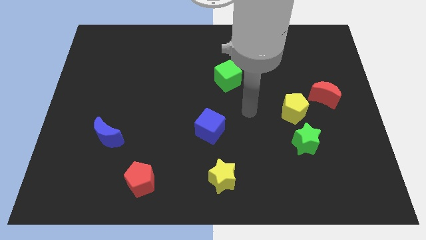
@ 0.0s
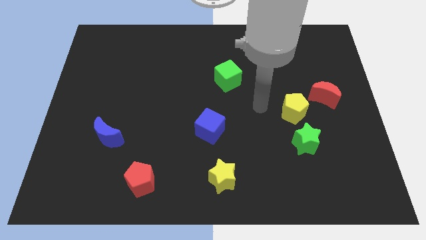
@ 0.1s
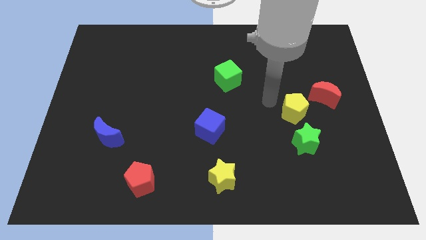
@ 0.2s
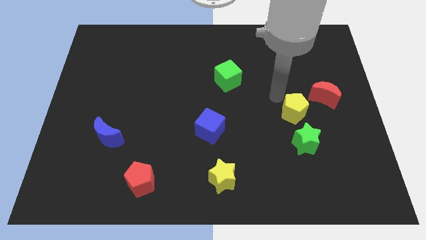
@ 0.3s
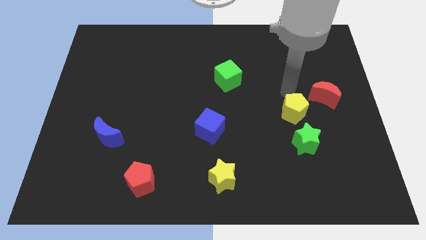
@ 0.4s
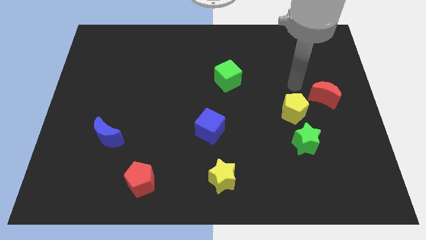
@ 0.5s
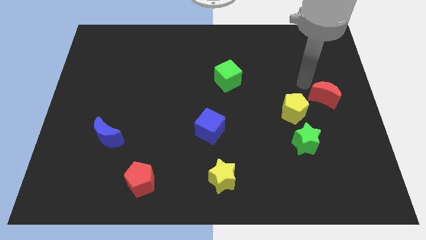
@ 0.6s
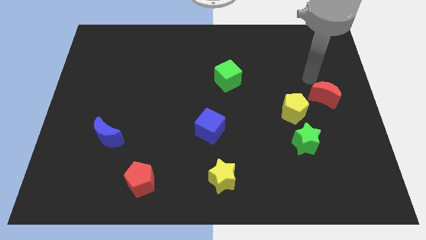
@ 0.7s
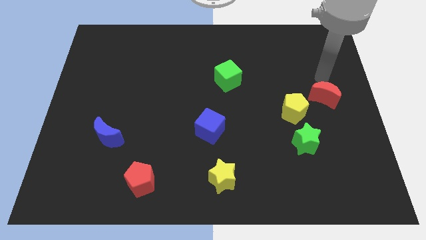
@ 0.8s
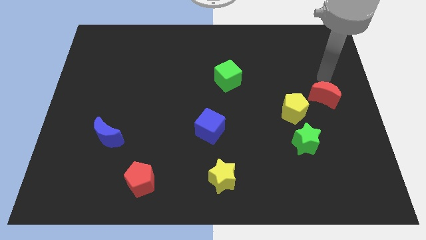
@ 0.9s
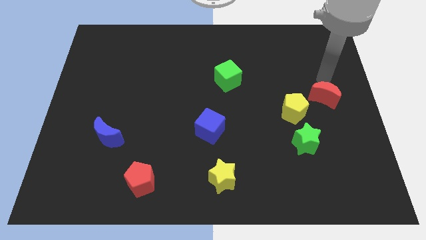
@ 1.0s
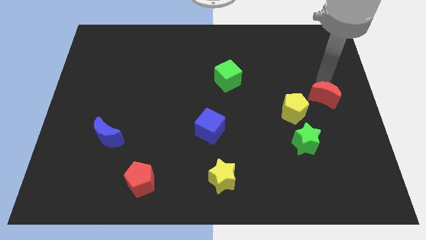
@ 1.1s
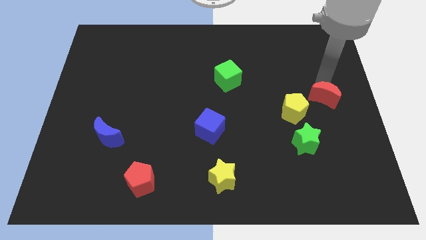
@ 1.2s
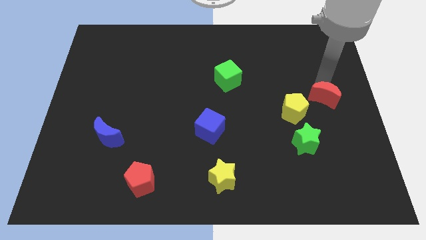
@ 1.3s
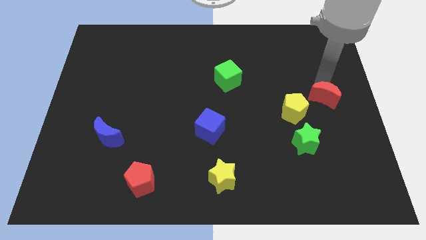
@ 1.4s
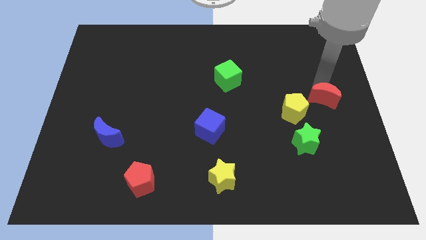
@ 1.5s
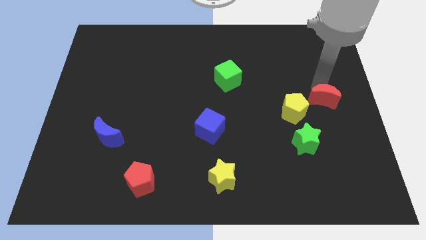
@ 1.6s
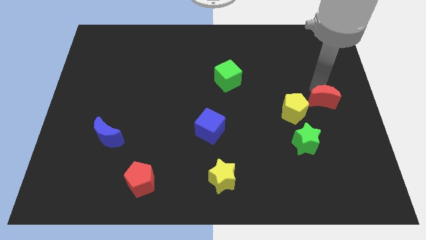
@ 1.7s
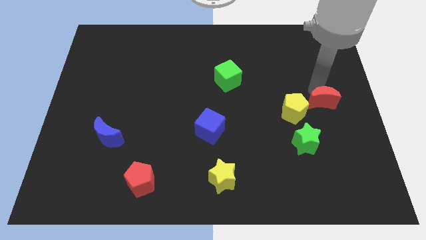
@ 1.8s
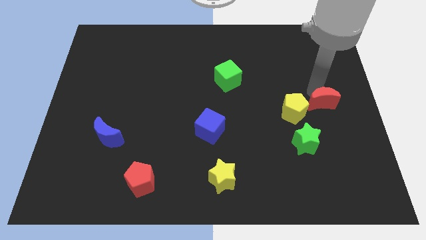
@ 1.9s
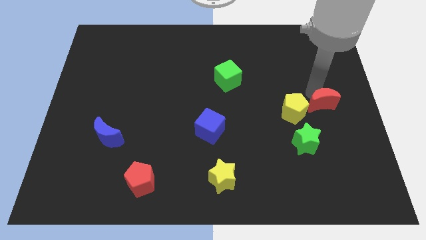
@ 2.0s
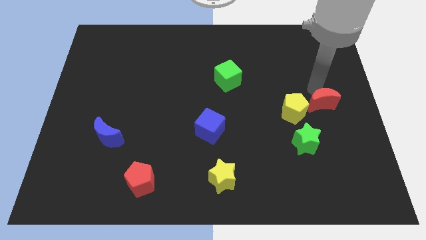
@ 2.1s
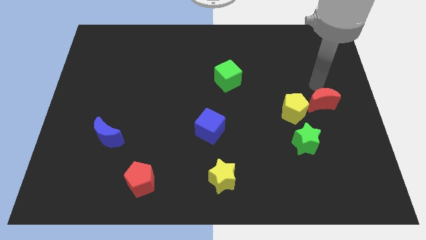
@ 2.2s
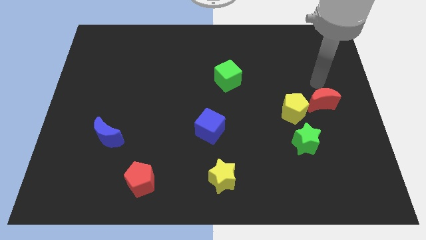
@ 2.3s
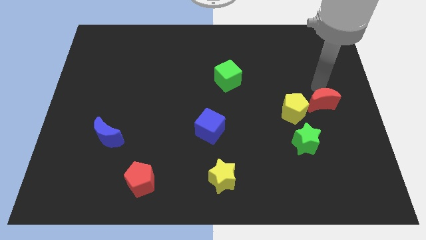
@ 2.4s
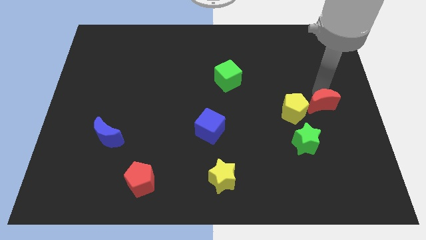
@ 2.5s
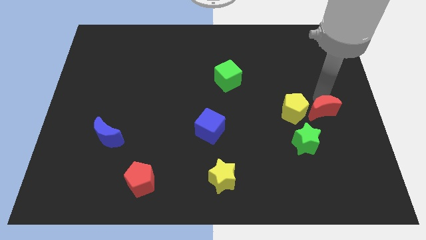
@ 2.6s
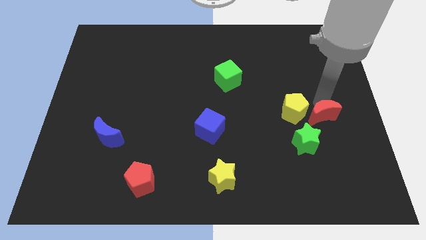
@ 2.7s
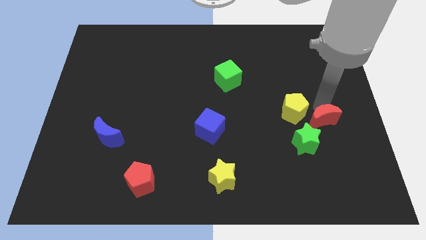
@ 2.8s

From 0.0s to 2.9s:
move the red moon a little down

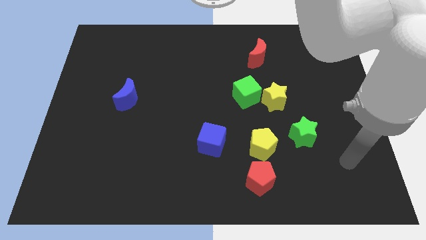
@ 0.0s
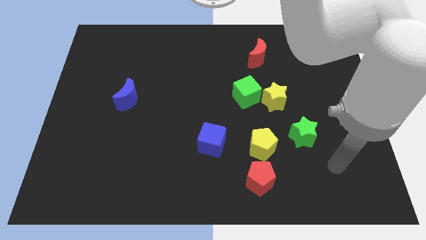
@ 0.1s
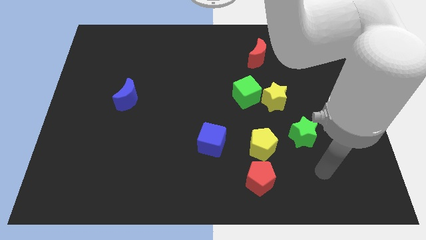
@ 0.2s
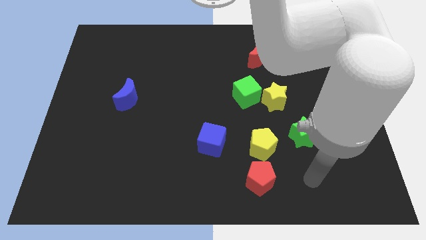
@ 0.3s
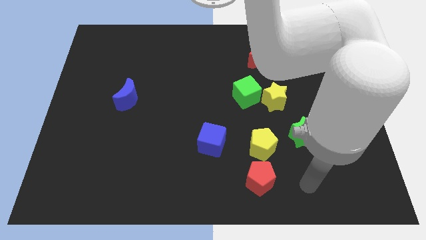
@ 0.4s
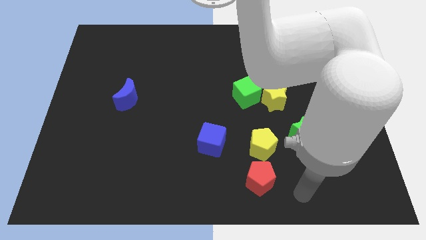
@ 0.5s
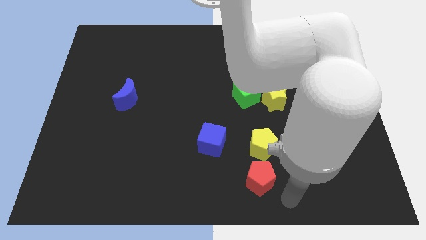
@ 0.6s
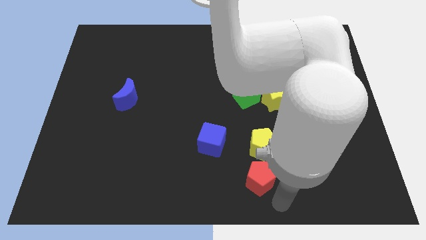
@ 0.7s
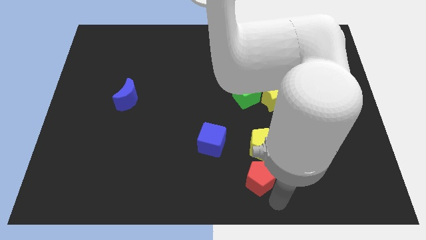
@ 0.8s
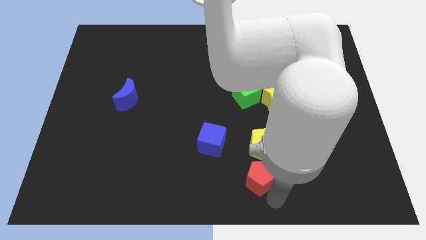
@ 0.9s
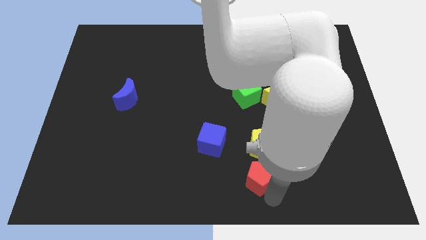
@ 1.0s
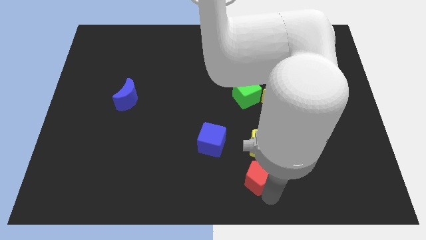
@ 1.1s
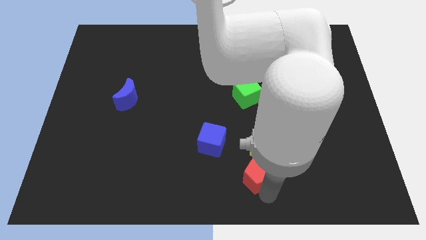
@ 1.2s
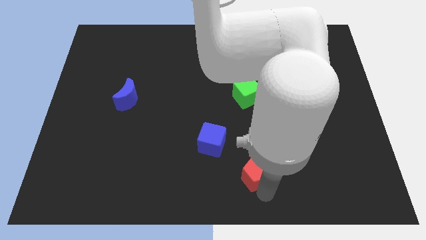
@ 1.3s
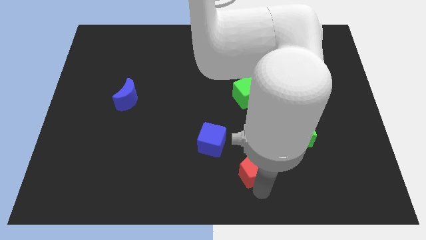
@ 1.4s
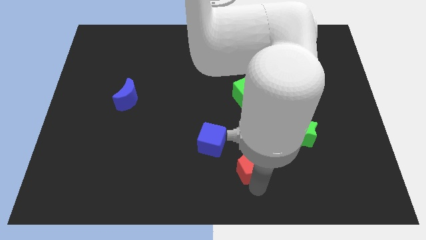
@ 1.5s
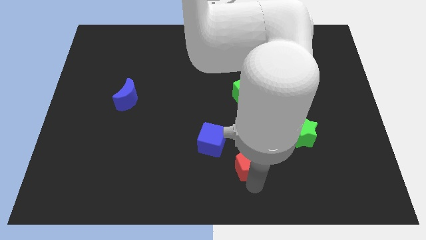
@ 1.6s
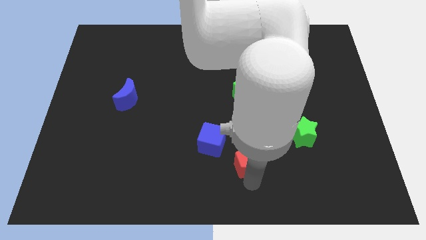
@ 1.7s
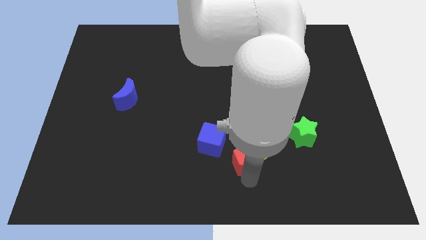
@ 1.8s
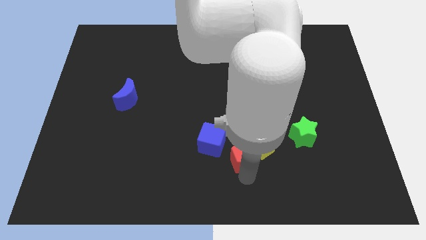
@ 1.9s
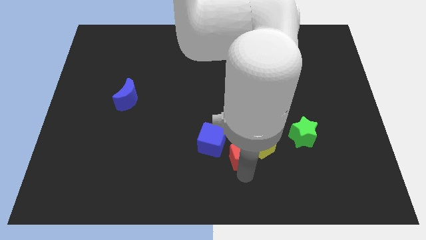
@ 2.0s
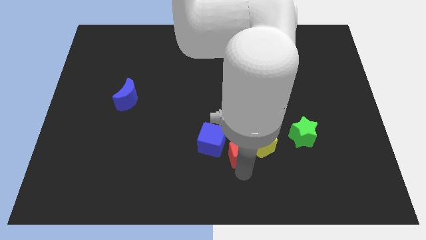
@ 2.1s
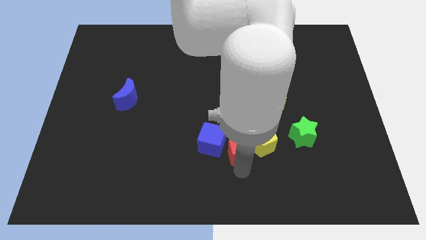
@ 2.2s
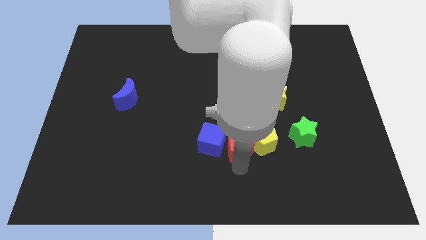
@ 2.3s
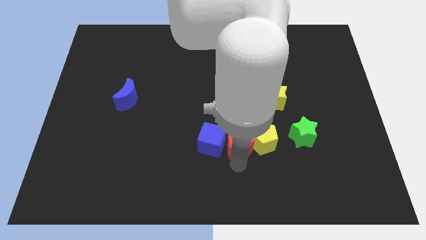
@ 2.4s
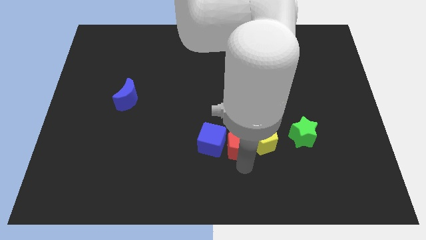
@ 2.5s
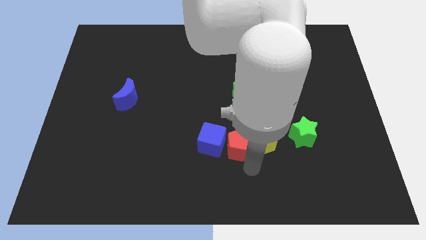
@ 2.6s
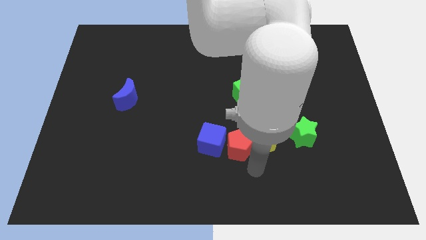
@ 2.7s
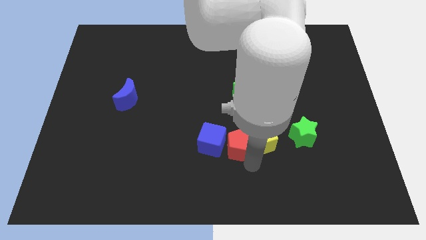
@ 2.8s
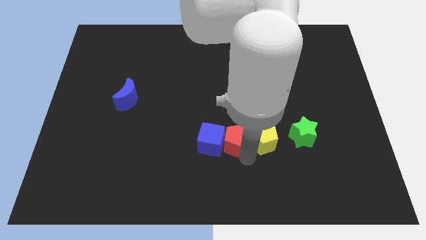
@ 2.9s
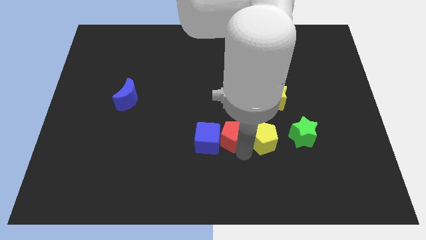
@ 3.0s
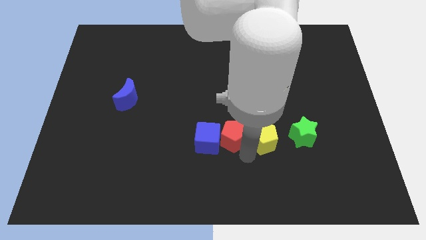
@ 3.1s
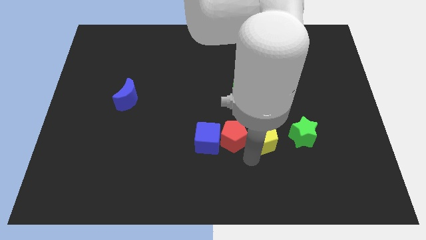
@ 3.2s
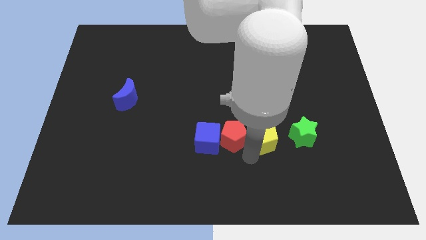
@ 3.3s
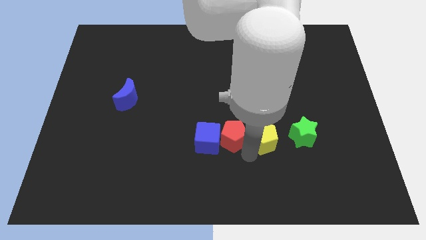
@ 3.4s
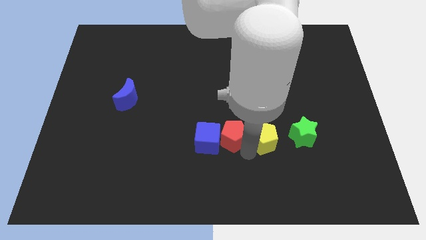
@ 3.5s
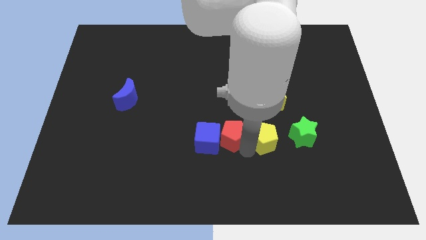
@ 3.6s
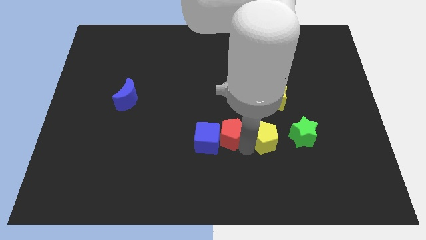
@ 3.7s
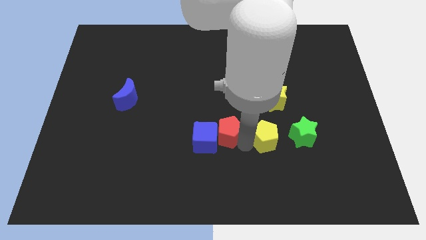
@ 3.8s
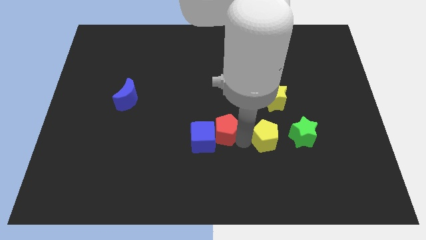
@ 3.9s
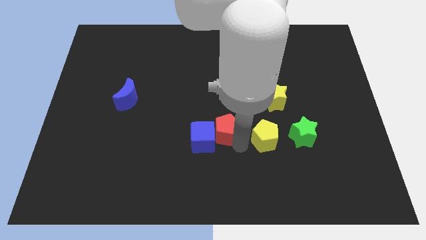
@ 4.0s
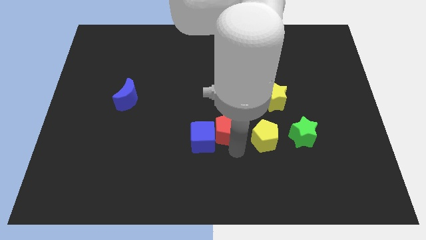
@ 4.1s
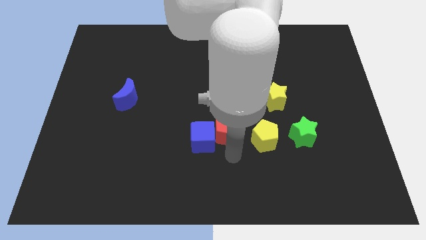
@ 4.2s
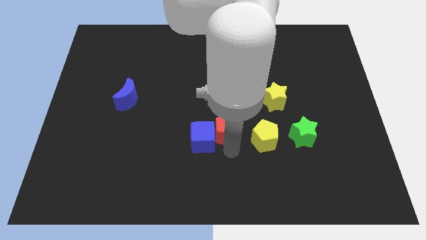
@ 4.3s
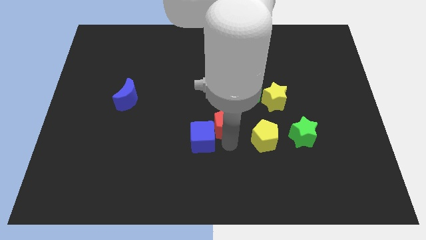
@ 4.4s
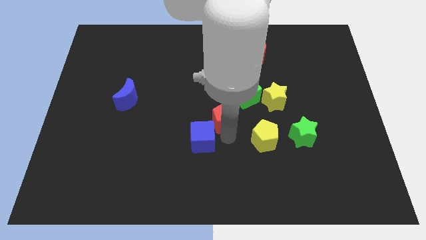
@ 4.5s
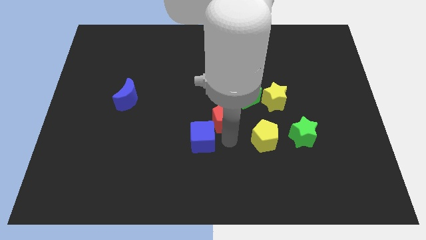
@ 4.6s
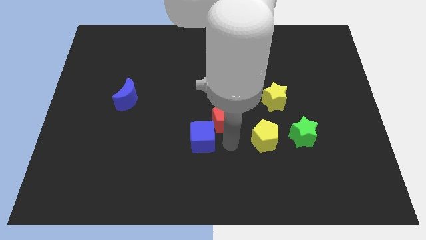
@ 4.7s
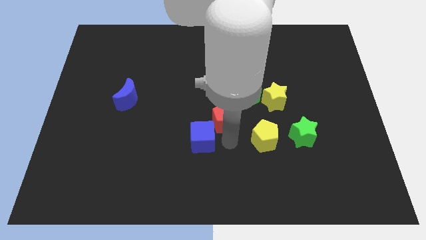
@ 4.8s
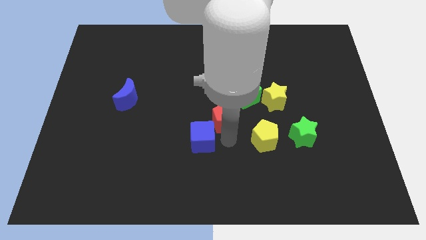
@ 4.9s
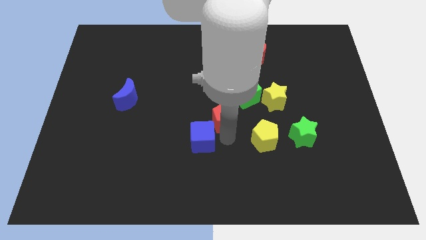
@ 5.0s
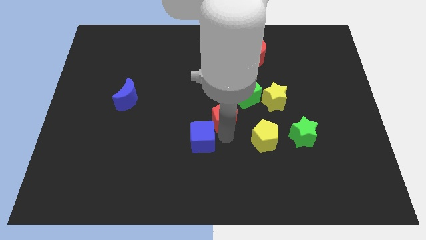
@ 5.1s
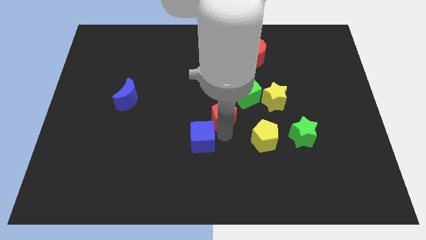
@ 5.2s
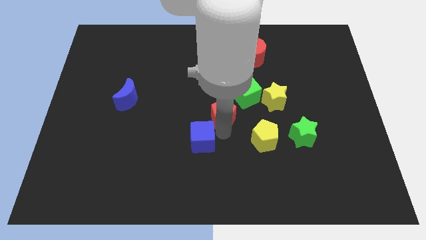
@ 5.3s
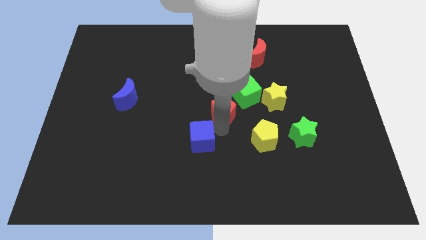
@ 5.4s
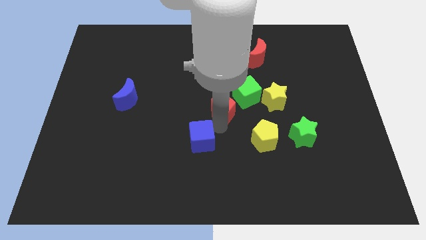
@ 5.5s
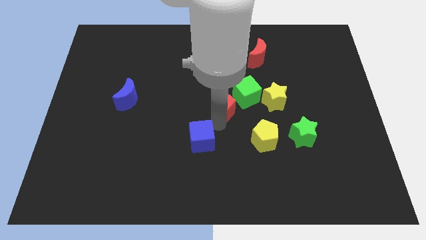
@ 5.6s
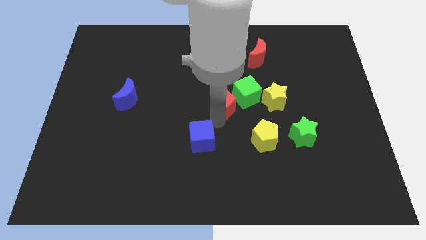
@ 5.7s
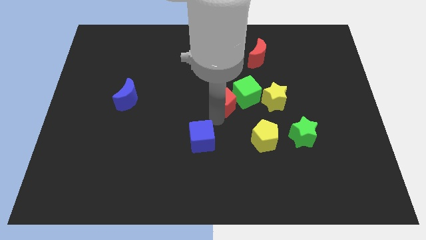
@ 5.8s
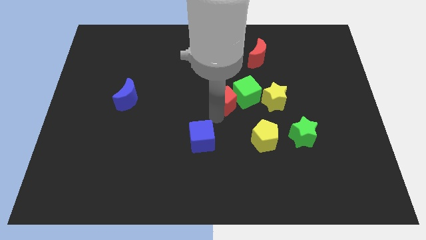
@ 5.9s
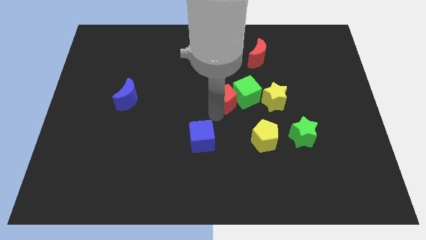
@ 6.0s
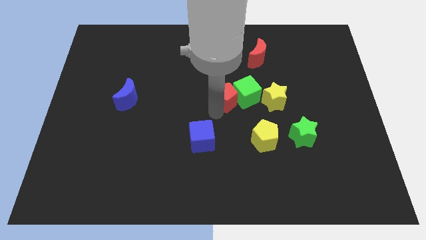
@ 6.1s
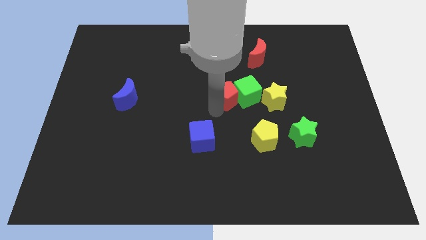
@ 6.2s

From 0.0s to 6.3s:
slide the red pentagon upwards
